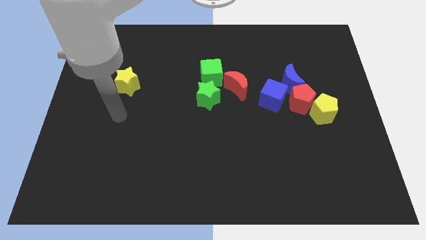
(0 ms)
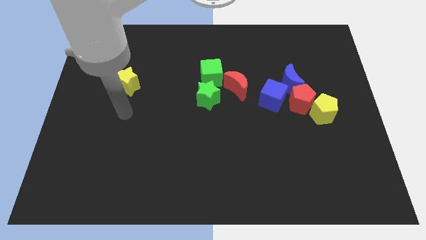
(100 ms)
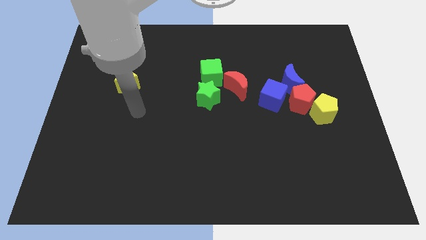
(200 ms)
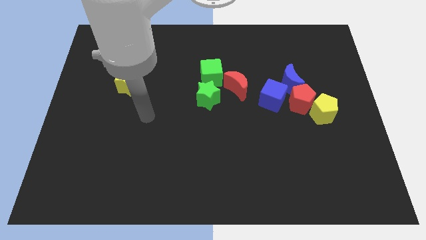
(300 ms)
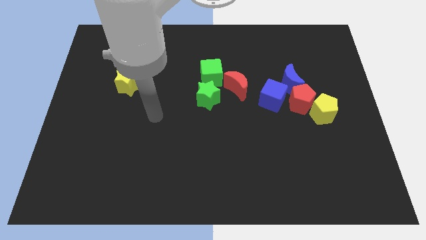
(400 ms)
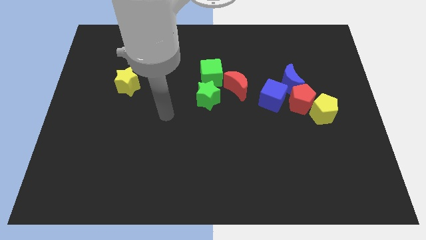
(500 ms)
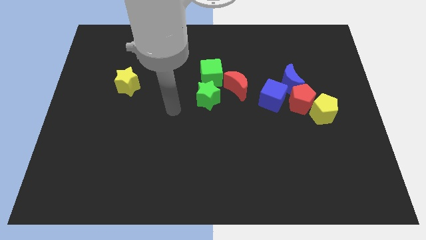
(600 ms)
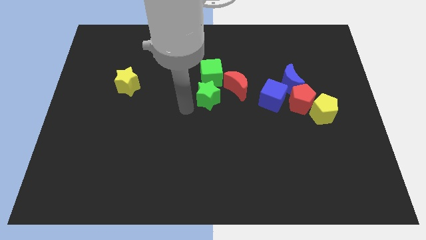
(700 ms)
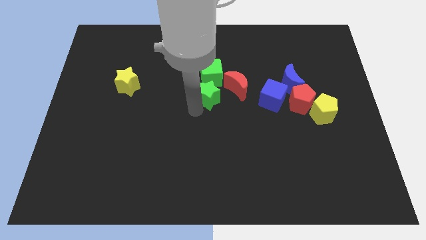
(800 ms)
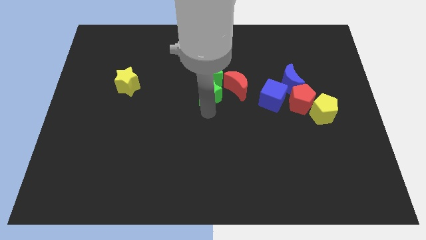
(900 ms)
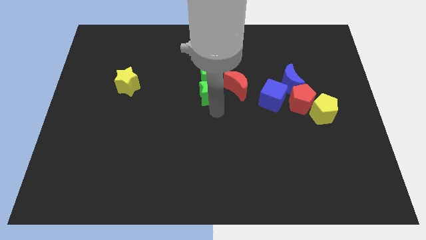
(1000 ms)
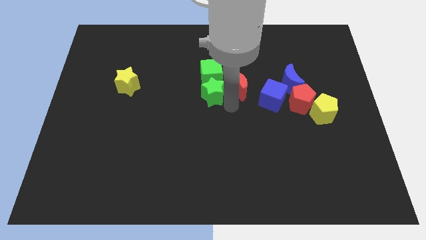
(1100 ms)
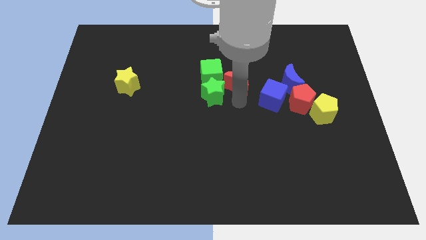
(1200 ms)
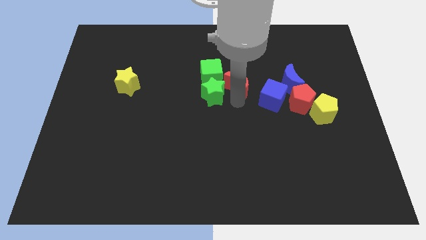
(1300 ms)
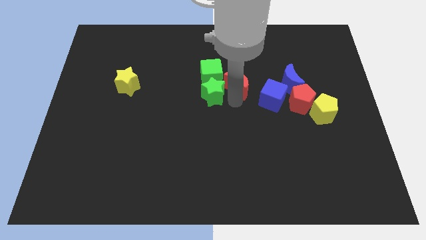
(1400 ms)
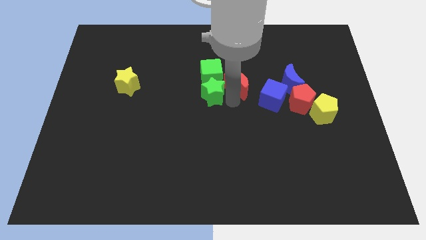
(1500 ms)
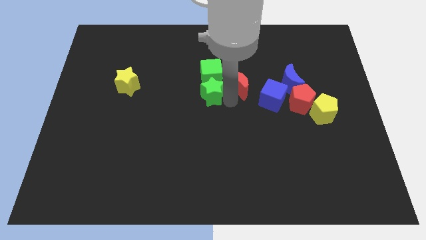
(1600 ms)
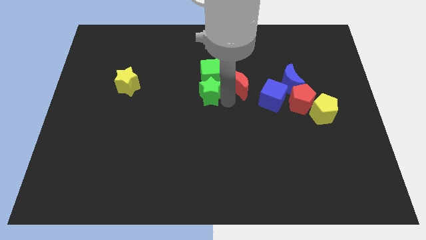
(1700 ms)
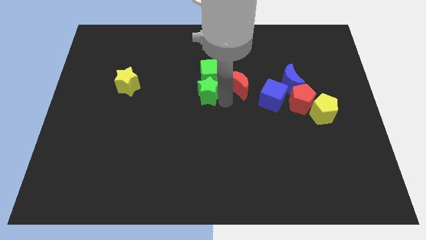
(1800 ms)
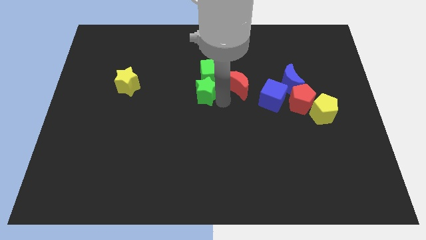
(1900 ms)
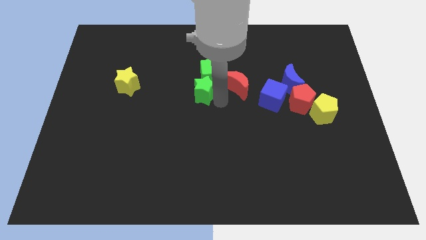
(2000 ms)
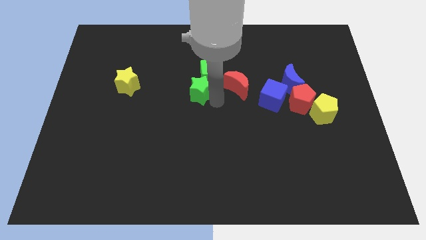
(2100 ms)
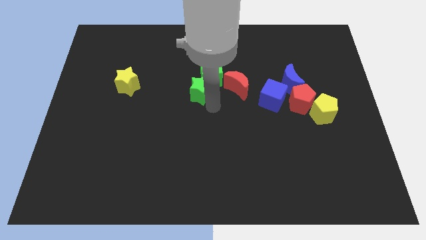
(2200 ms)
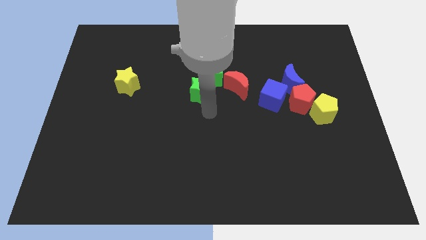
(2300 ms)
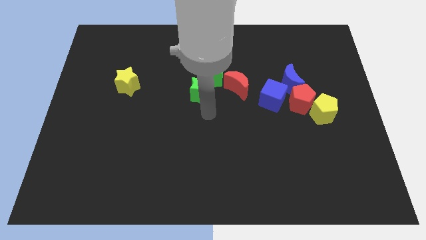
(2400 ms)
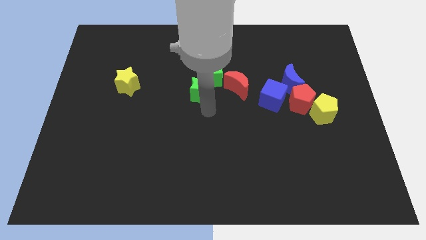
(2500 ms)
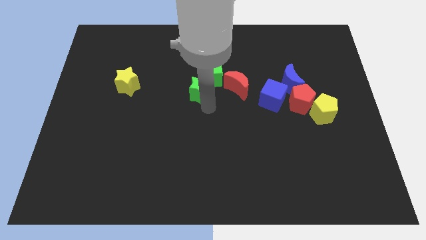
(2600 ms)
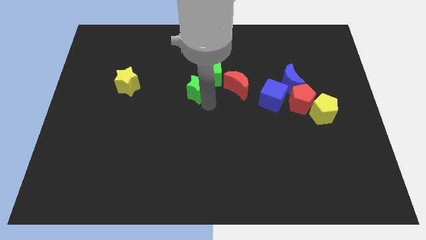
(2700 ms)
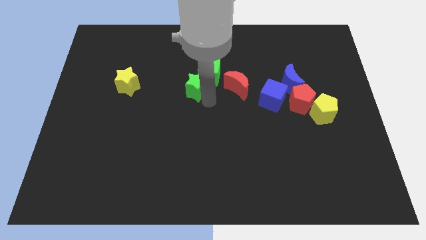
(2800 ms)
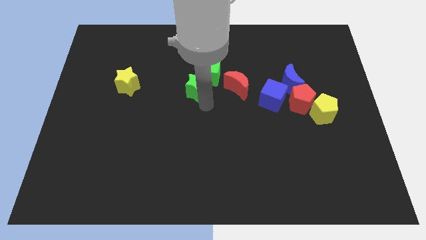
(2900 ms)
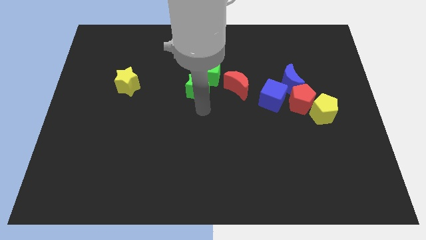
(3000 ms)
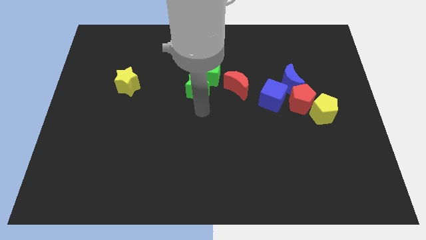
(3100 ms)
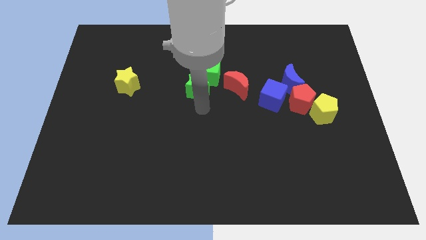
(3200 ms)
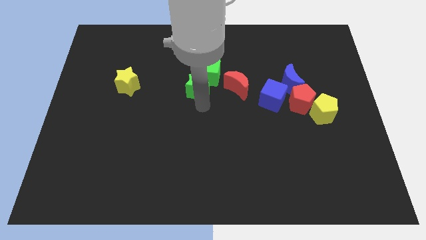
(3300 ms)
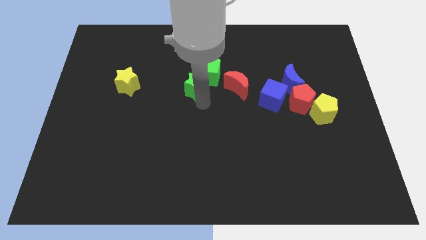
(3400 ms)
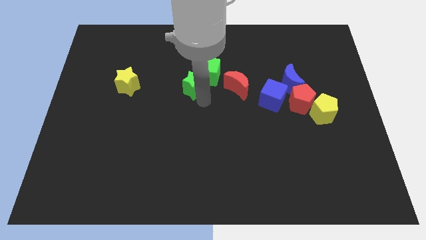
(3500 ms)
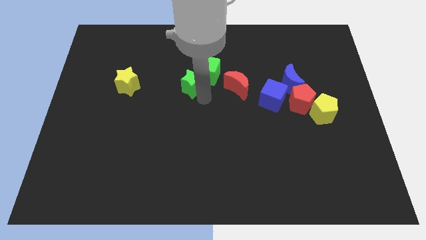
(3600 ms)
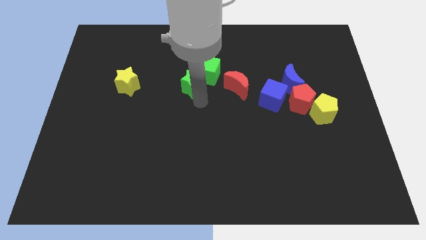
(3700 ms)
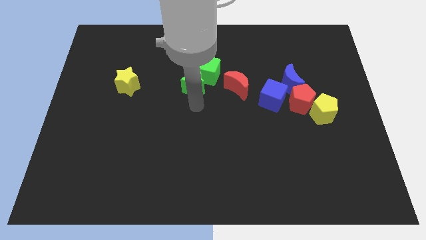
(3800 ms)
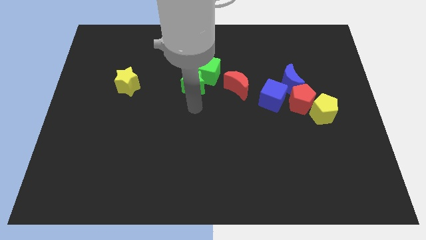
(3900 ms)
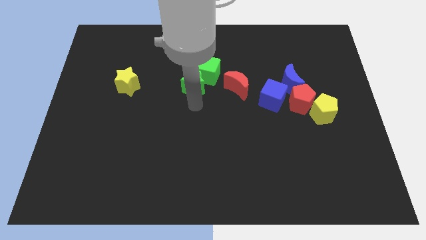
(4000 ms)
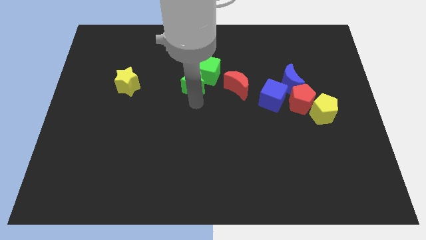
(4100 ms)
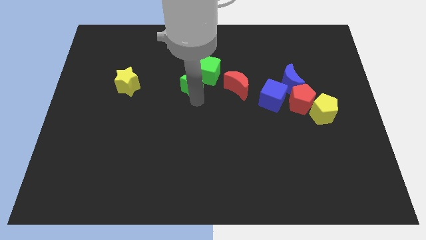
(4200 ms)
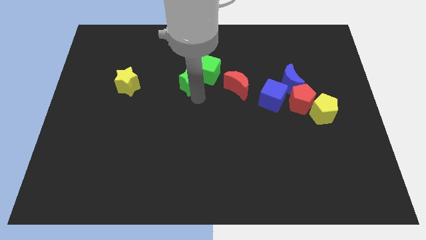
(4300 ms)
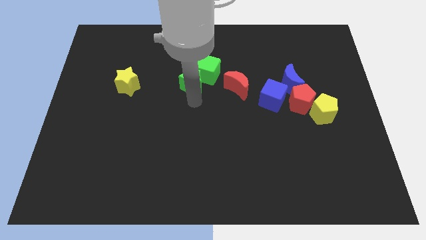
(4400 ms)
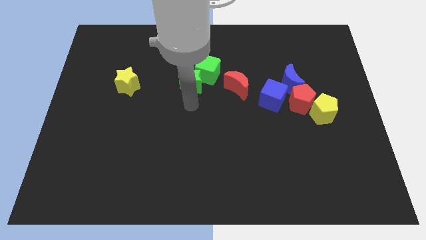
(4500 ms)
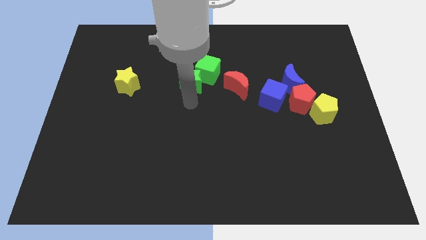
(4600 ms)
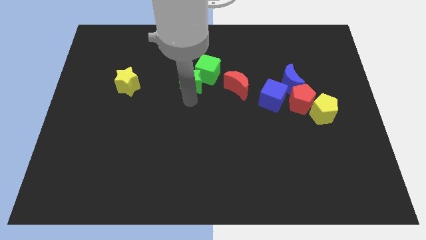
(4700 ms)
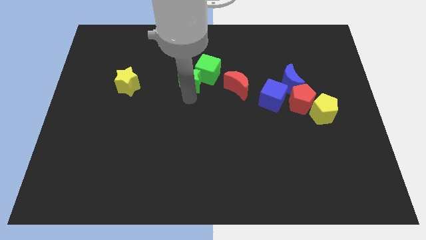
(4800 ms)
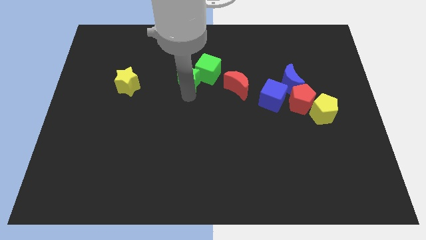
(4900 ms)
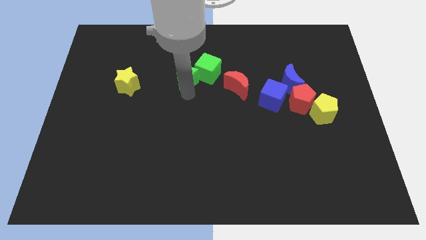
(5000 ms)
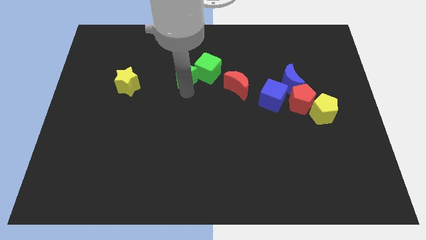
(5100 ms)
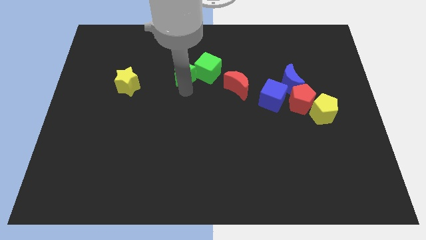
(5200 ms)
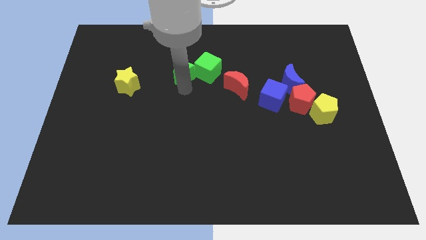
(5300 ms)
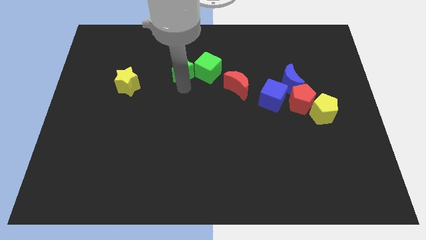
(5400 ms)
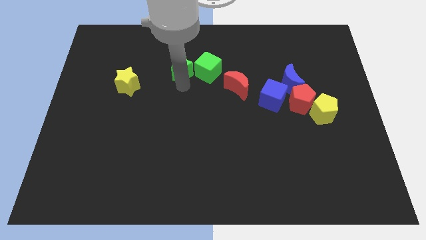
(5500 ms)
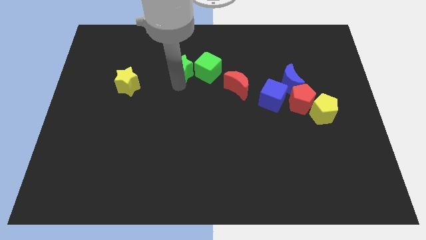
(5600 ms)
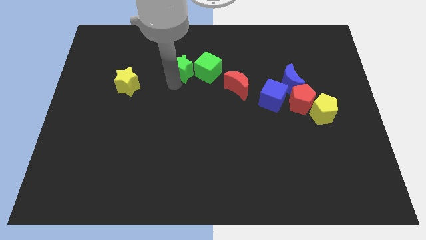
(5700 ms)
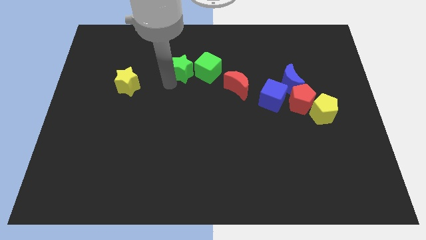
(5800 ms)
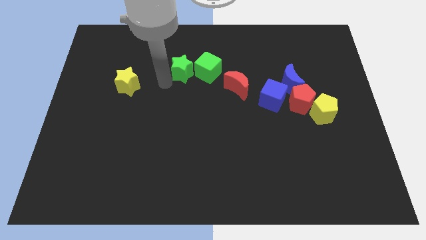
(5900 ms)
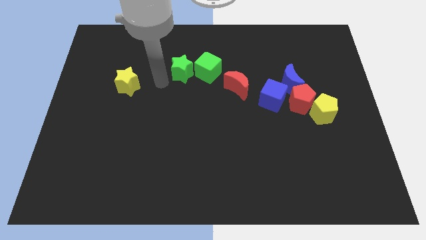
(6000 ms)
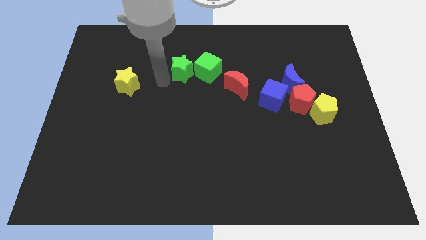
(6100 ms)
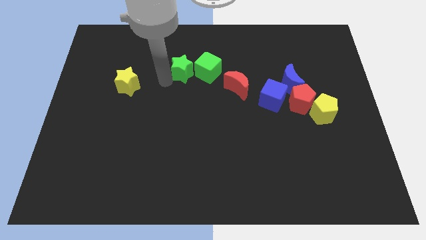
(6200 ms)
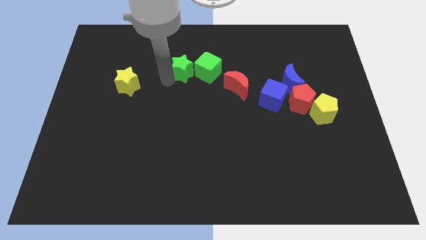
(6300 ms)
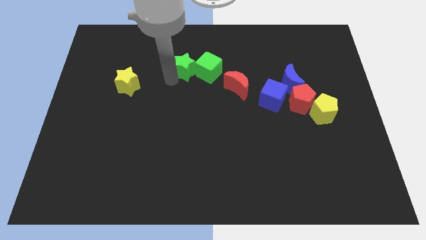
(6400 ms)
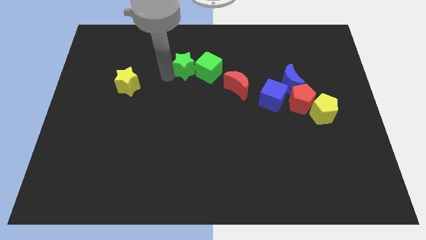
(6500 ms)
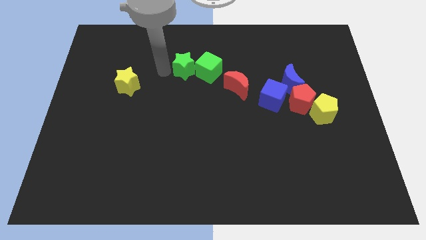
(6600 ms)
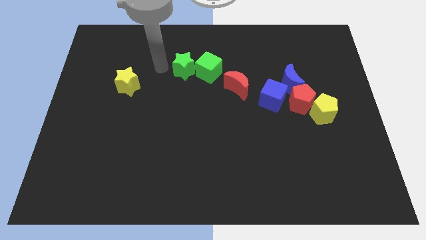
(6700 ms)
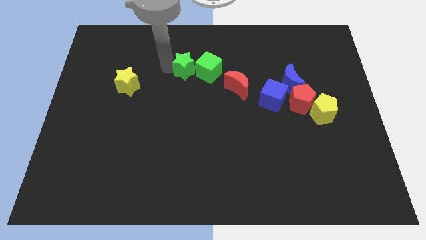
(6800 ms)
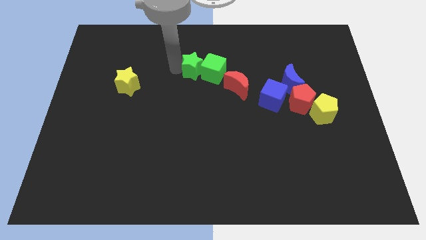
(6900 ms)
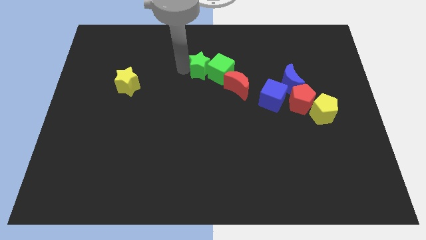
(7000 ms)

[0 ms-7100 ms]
move the green star to the top left side of the red moon
